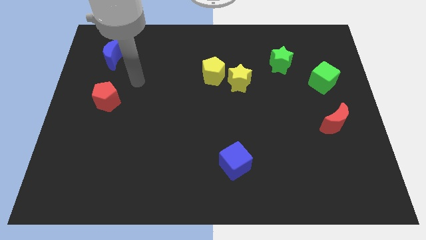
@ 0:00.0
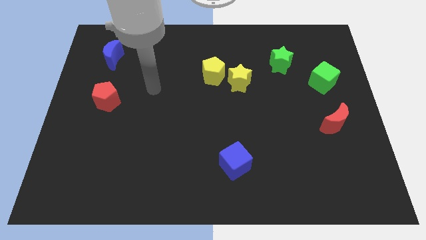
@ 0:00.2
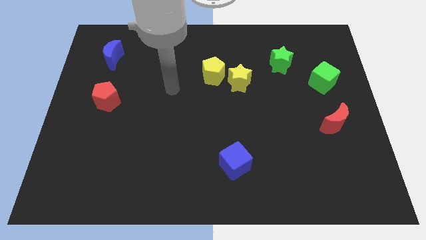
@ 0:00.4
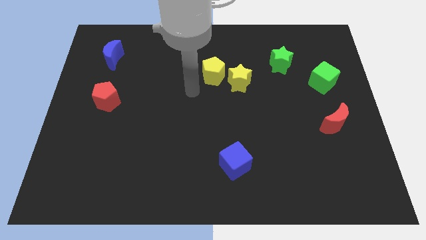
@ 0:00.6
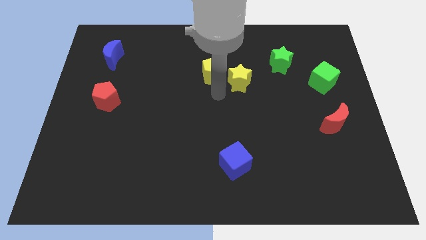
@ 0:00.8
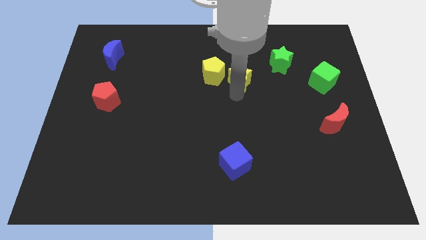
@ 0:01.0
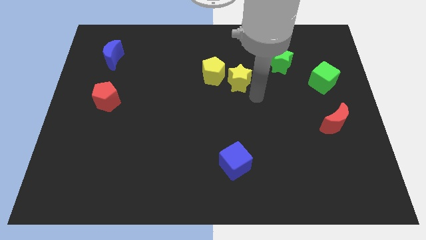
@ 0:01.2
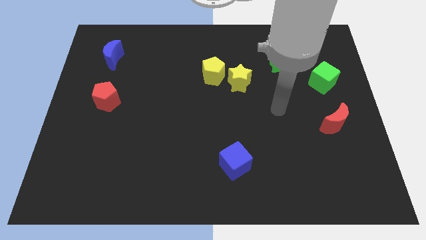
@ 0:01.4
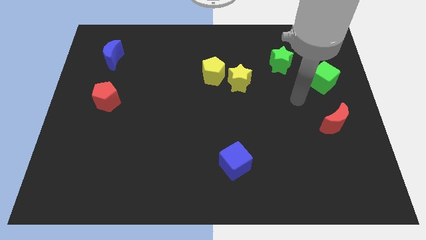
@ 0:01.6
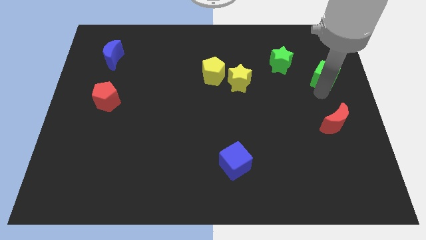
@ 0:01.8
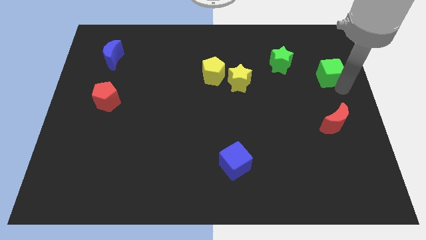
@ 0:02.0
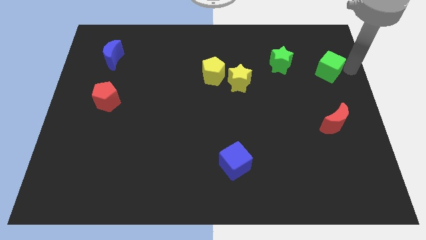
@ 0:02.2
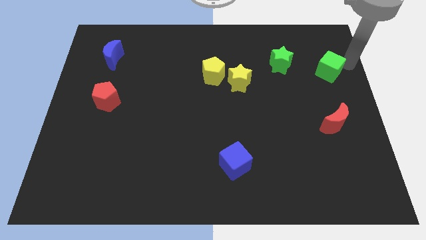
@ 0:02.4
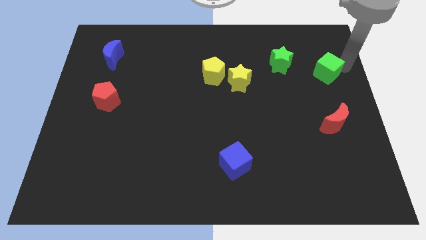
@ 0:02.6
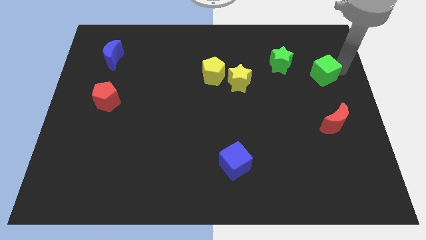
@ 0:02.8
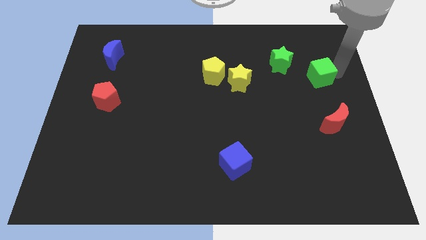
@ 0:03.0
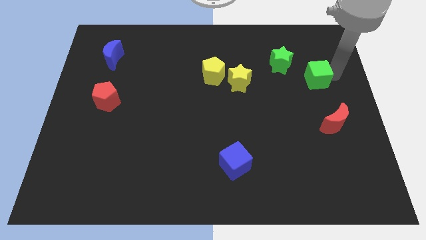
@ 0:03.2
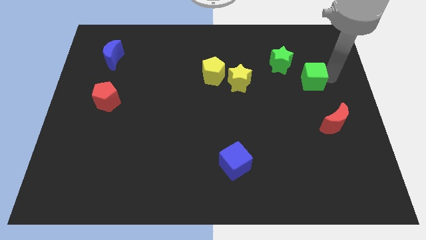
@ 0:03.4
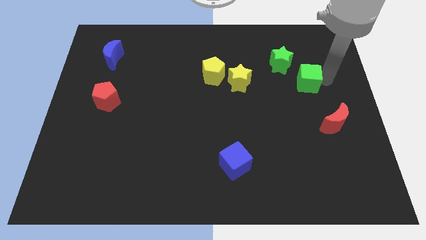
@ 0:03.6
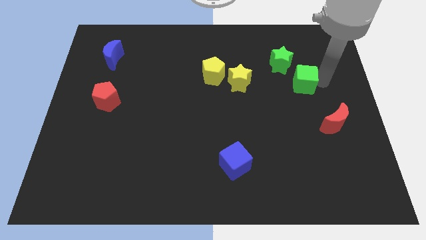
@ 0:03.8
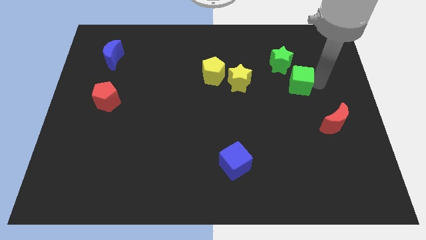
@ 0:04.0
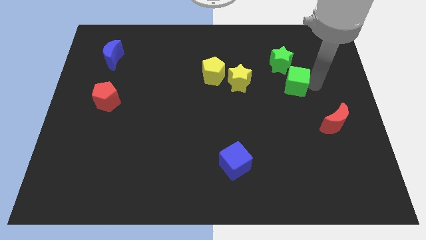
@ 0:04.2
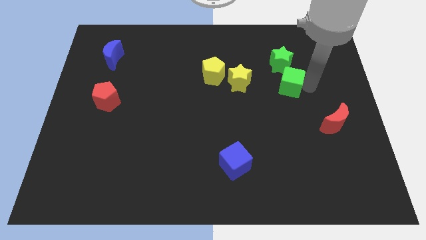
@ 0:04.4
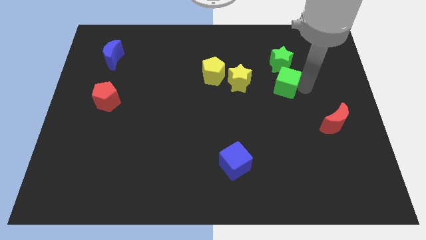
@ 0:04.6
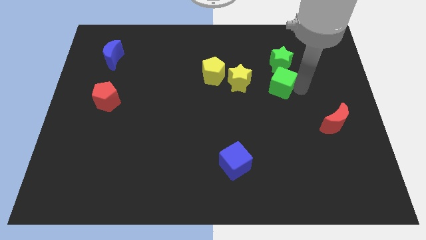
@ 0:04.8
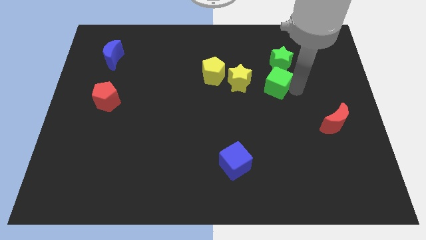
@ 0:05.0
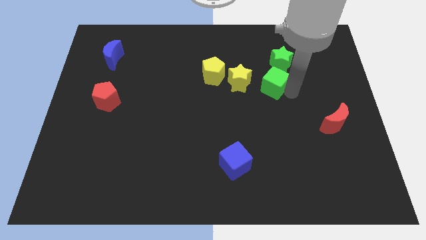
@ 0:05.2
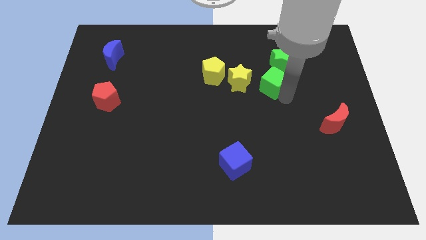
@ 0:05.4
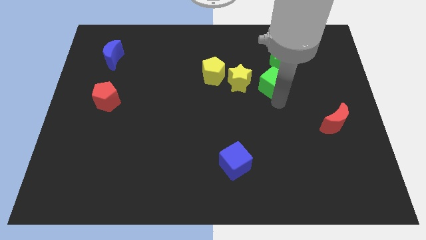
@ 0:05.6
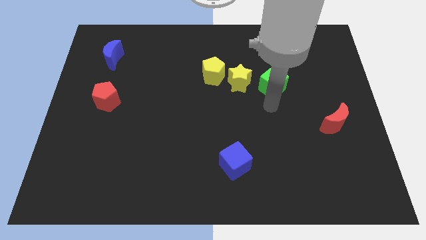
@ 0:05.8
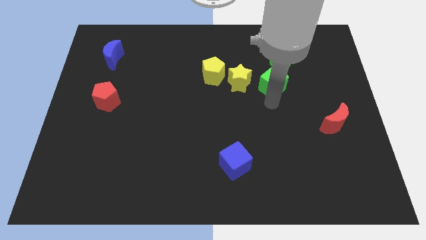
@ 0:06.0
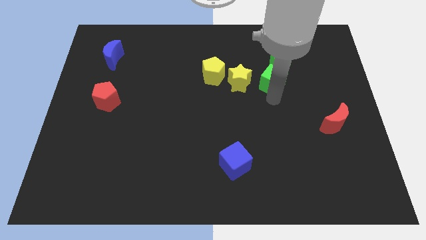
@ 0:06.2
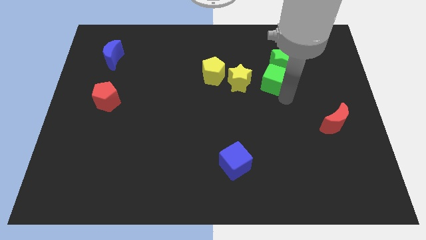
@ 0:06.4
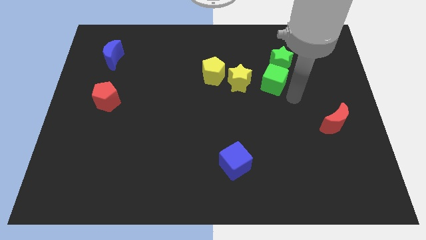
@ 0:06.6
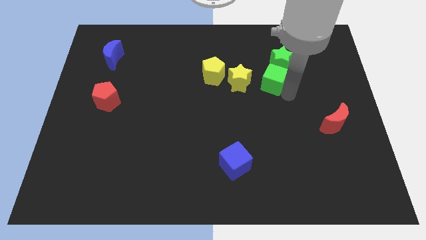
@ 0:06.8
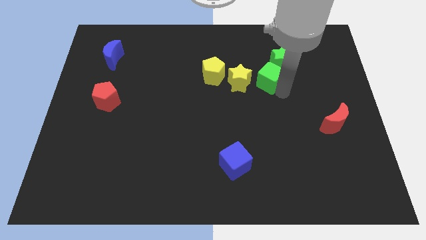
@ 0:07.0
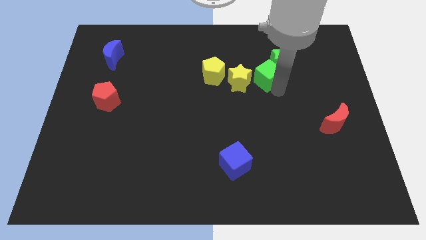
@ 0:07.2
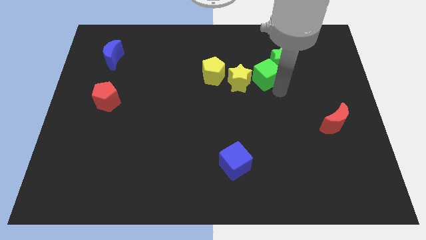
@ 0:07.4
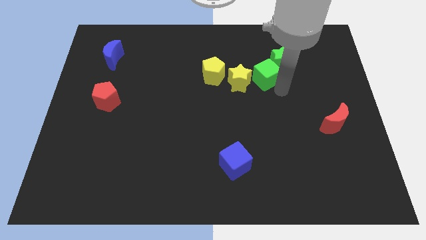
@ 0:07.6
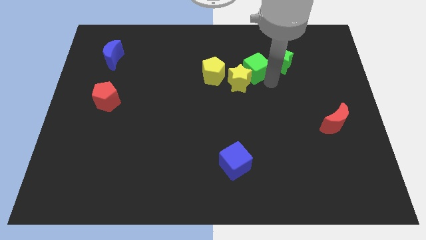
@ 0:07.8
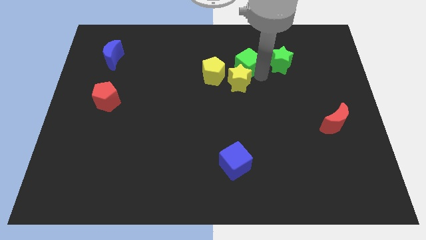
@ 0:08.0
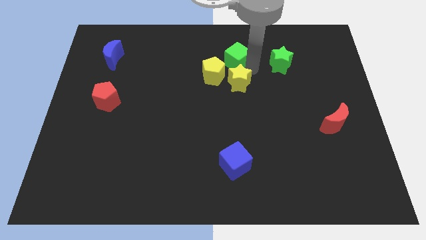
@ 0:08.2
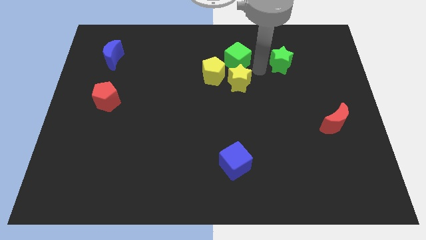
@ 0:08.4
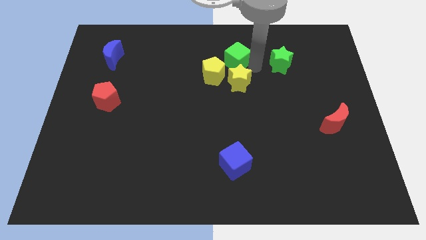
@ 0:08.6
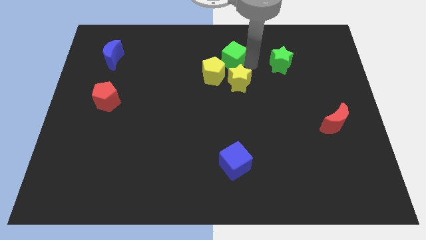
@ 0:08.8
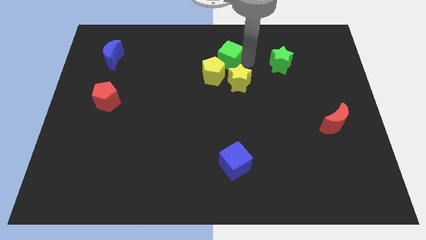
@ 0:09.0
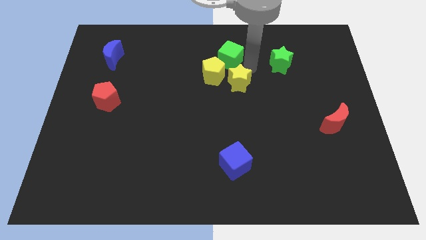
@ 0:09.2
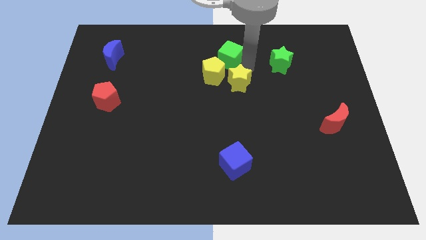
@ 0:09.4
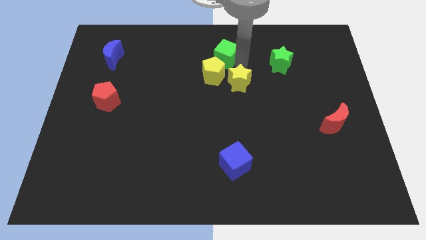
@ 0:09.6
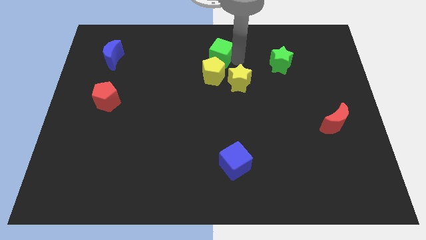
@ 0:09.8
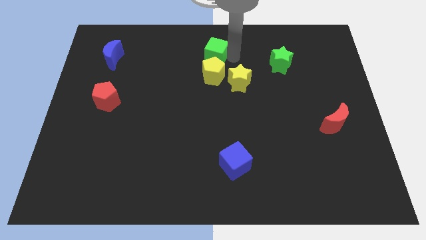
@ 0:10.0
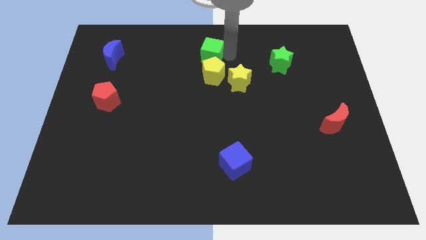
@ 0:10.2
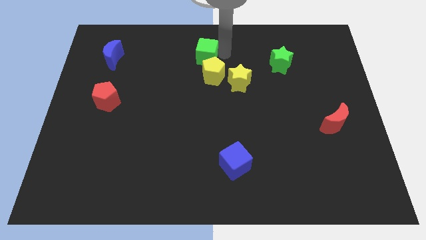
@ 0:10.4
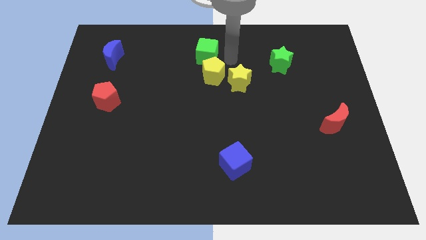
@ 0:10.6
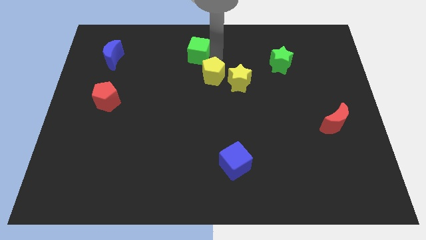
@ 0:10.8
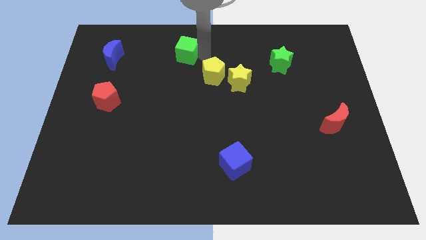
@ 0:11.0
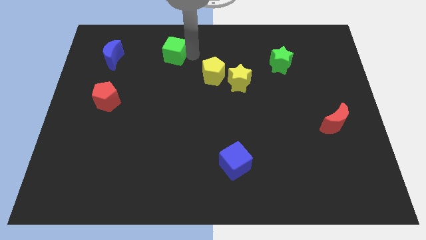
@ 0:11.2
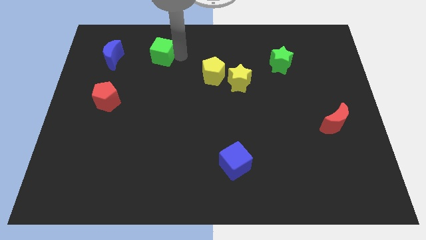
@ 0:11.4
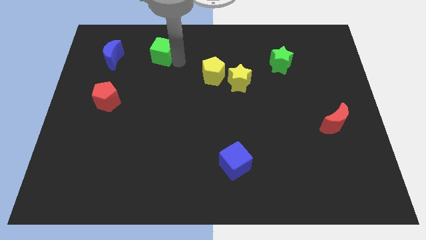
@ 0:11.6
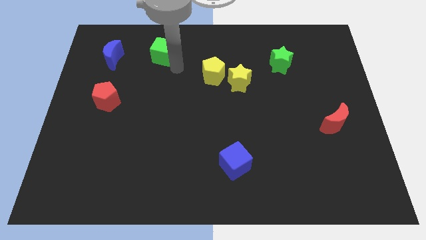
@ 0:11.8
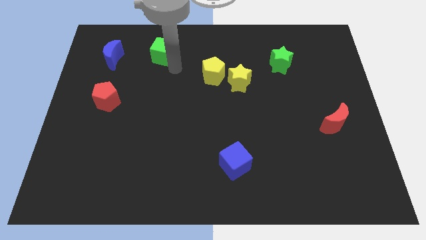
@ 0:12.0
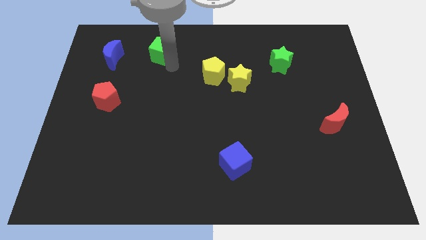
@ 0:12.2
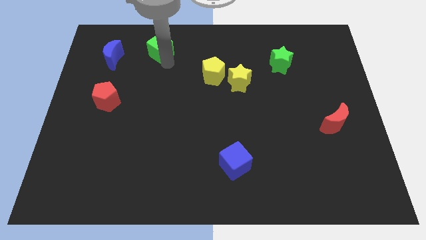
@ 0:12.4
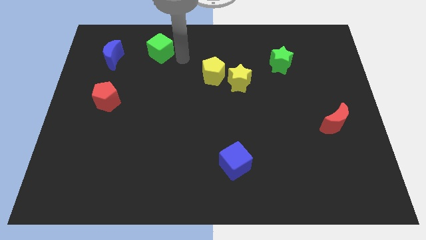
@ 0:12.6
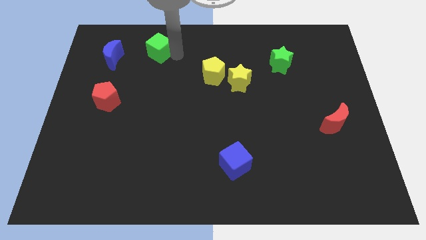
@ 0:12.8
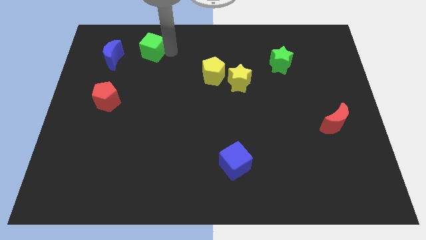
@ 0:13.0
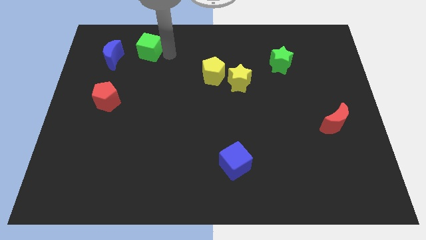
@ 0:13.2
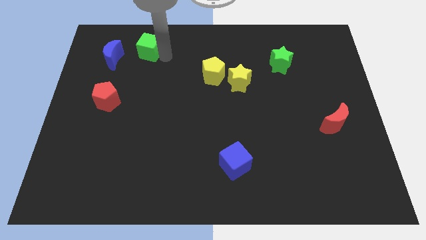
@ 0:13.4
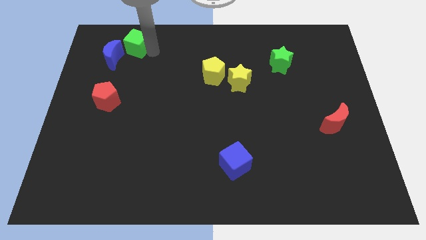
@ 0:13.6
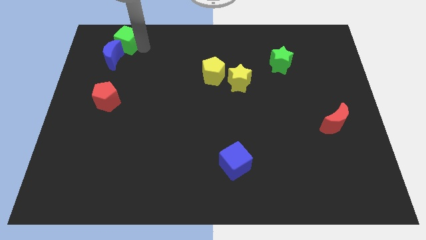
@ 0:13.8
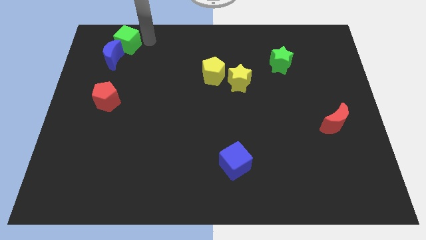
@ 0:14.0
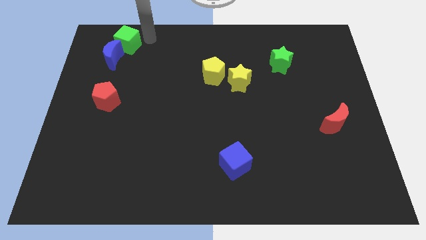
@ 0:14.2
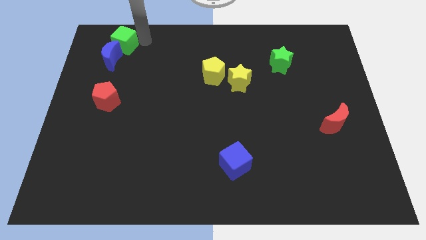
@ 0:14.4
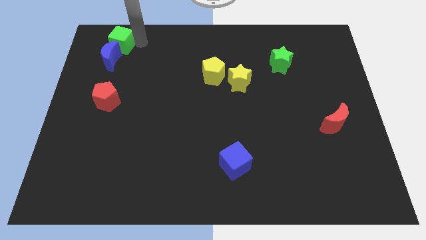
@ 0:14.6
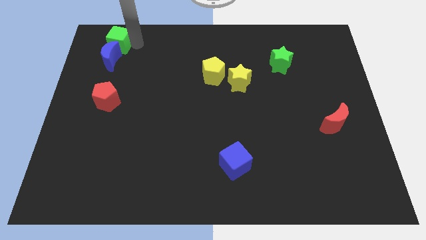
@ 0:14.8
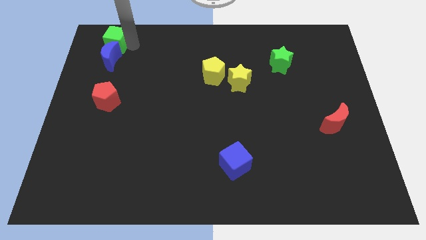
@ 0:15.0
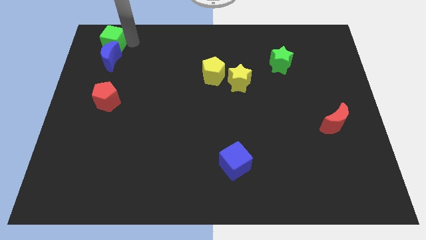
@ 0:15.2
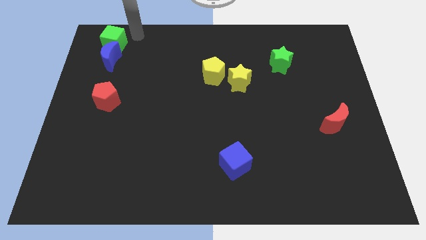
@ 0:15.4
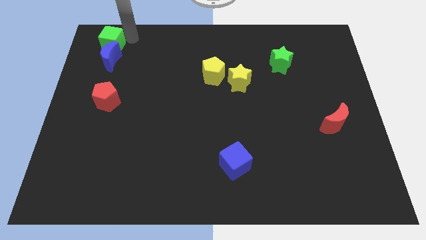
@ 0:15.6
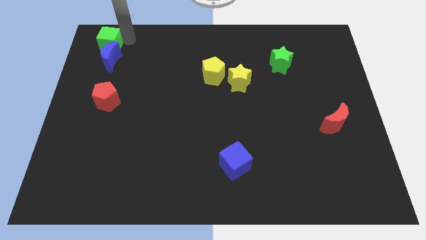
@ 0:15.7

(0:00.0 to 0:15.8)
push the green cube to the top left
